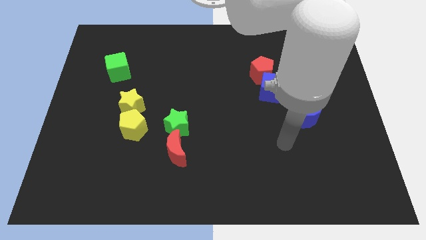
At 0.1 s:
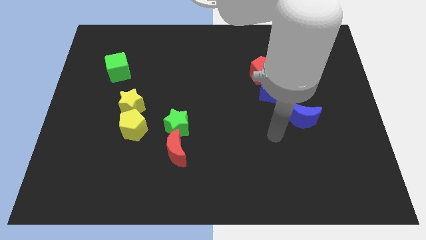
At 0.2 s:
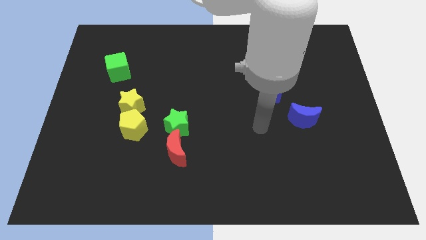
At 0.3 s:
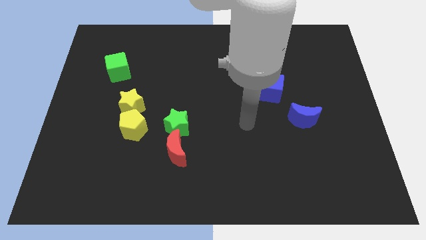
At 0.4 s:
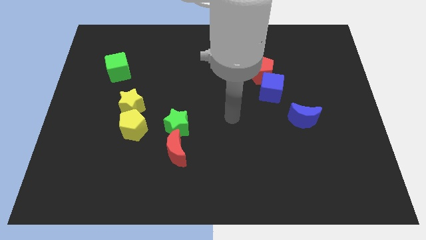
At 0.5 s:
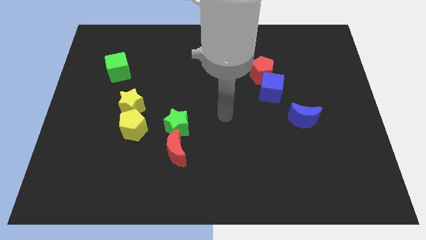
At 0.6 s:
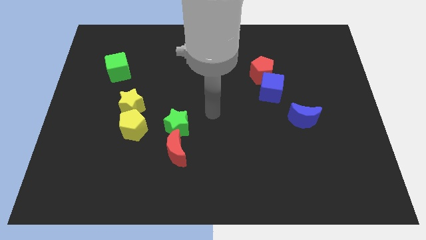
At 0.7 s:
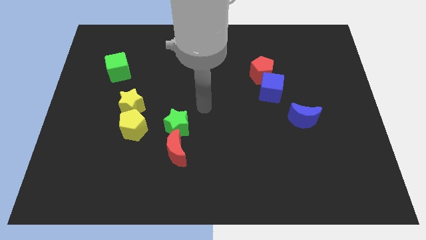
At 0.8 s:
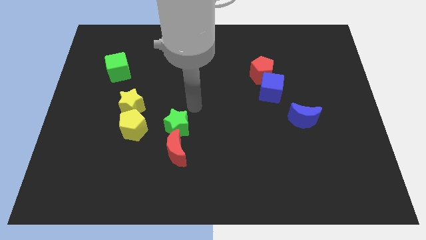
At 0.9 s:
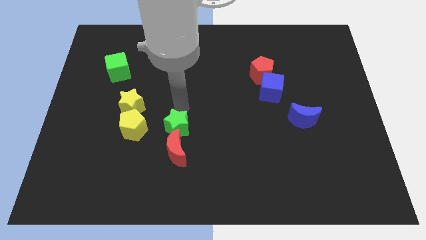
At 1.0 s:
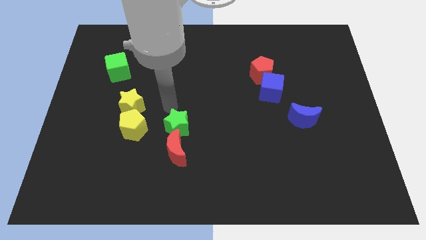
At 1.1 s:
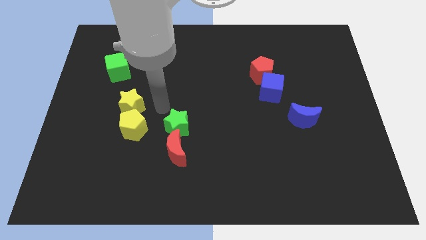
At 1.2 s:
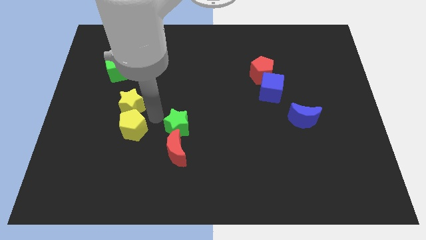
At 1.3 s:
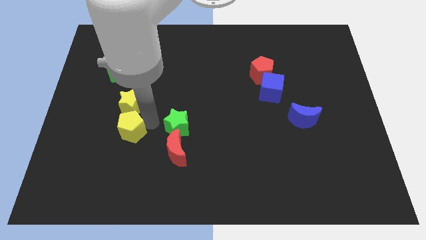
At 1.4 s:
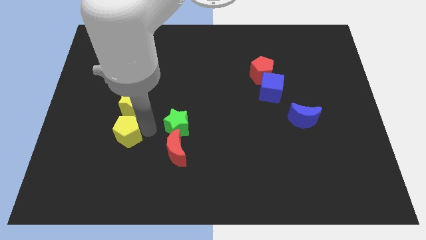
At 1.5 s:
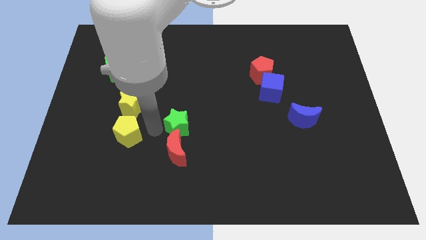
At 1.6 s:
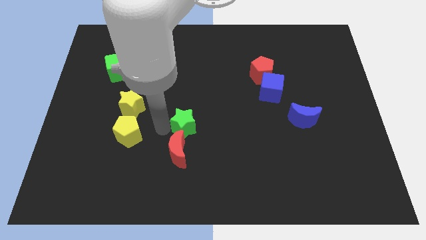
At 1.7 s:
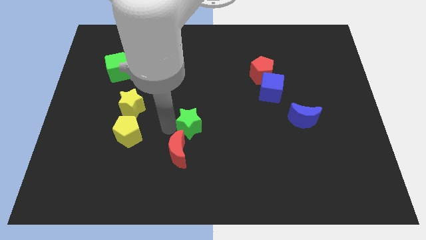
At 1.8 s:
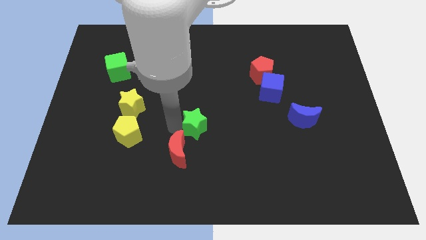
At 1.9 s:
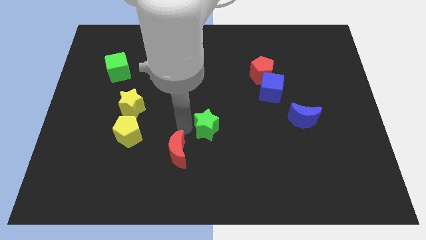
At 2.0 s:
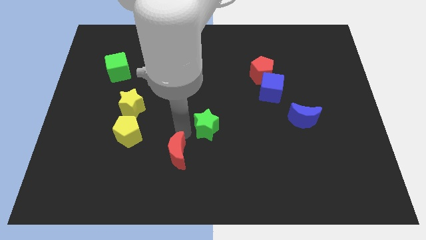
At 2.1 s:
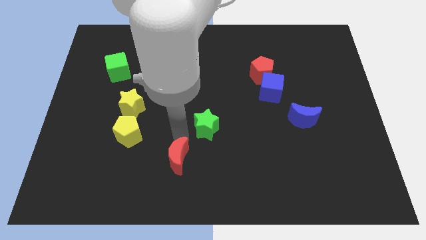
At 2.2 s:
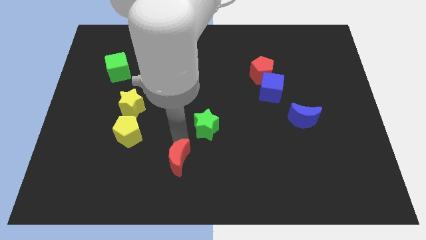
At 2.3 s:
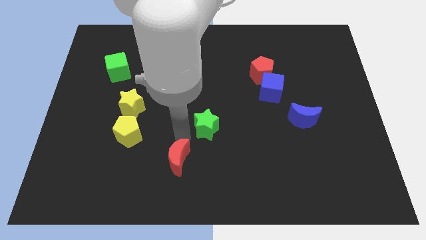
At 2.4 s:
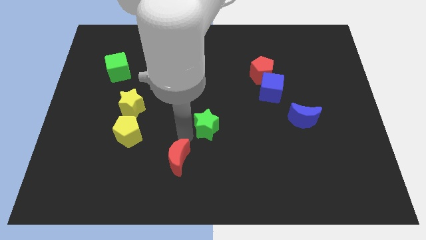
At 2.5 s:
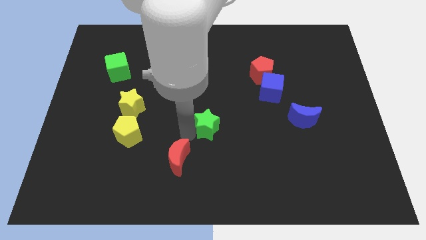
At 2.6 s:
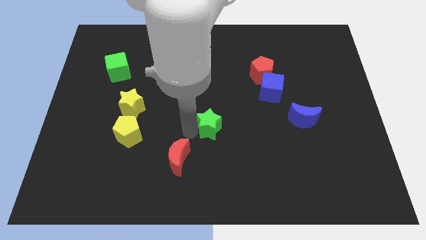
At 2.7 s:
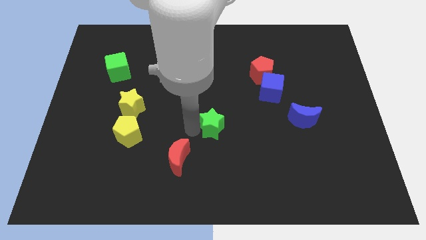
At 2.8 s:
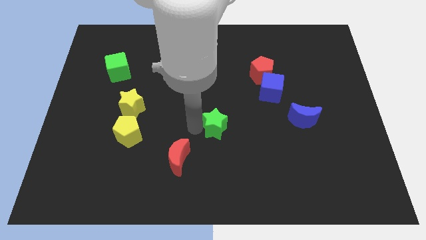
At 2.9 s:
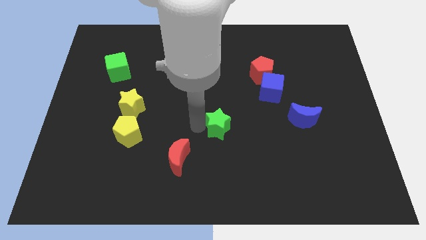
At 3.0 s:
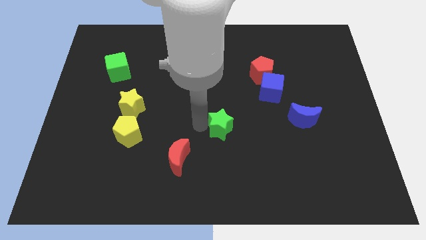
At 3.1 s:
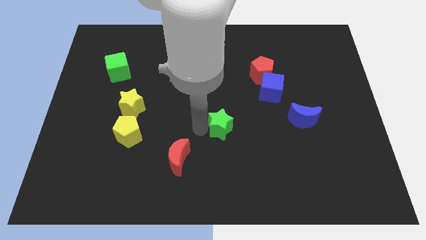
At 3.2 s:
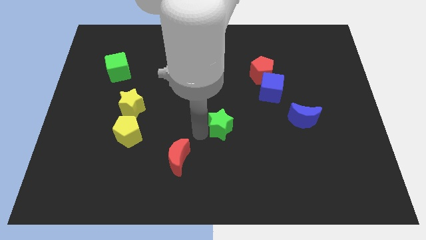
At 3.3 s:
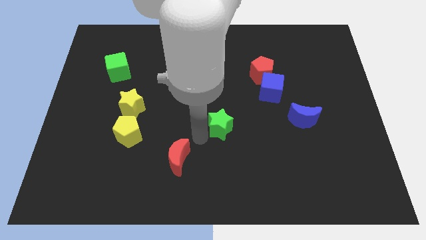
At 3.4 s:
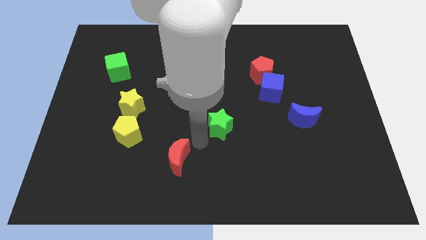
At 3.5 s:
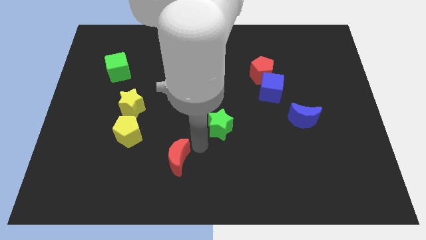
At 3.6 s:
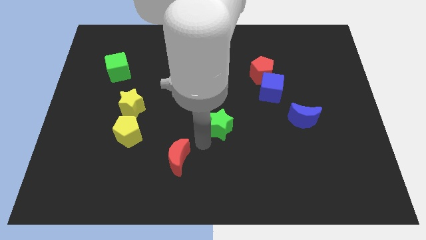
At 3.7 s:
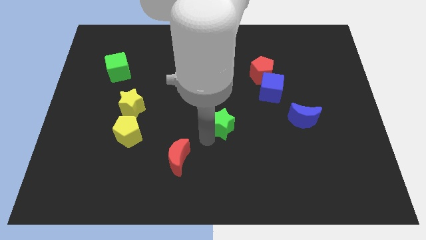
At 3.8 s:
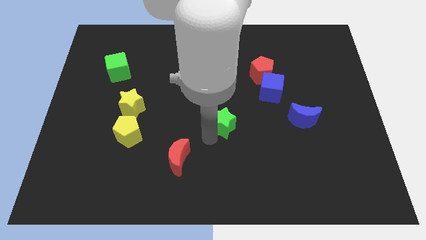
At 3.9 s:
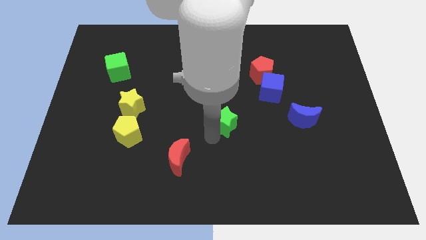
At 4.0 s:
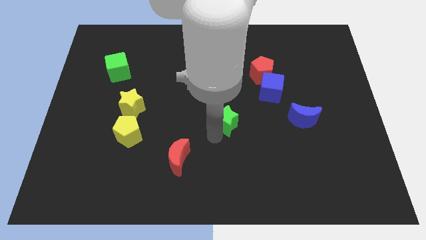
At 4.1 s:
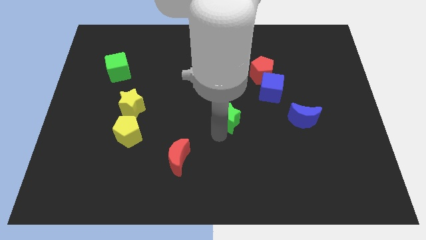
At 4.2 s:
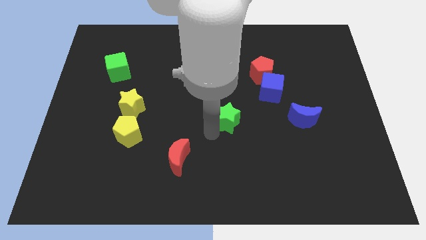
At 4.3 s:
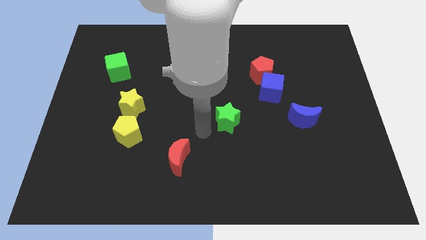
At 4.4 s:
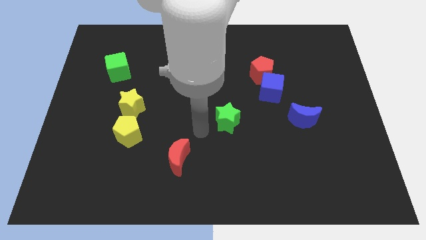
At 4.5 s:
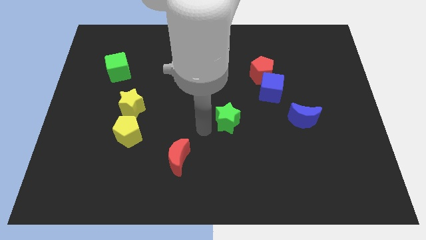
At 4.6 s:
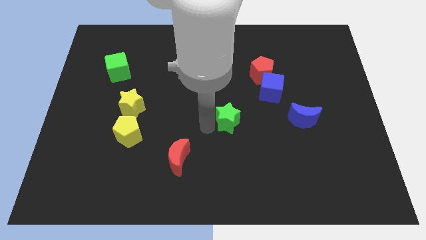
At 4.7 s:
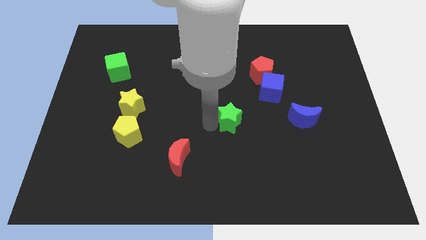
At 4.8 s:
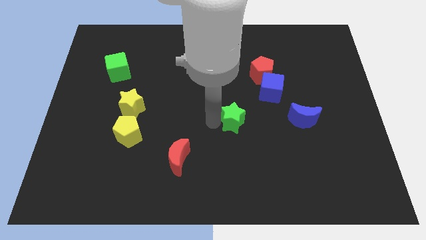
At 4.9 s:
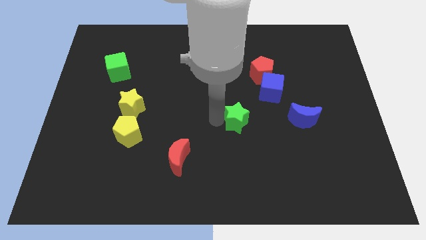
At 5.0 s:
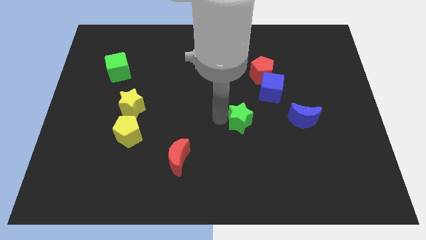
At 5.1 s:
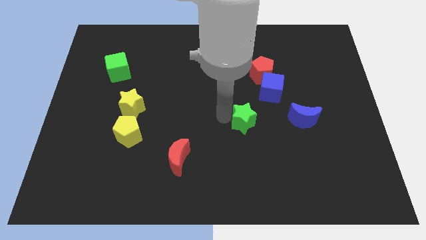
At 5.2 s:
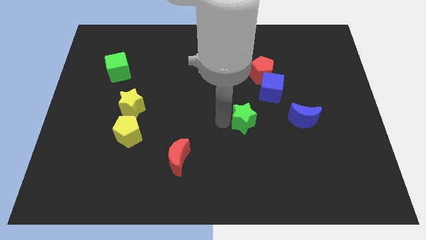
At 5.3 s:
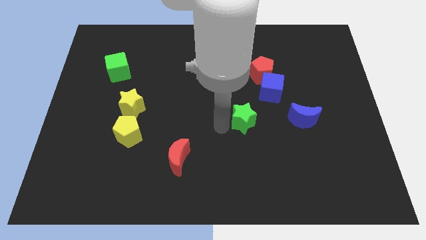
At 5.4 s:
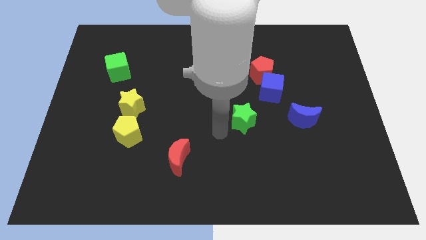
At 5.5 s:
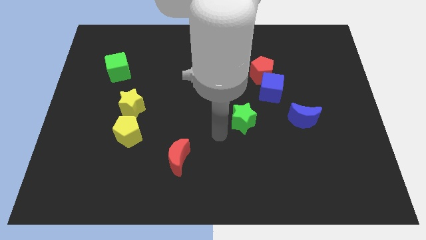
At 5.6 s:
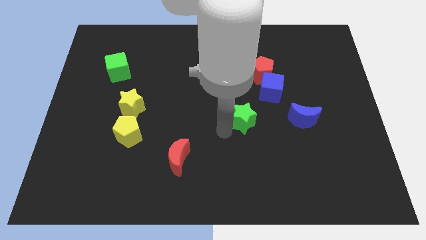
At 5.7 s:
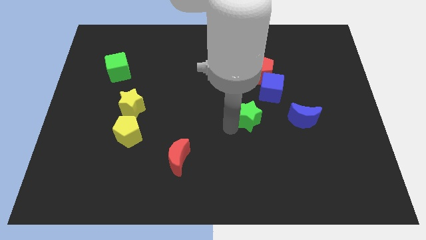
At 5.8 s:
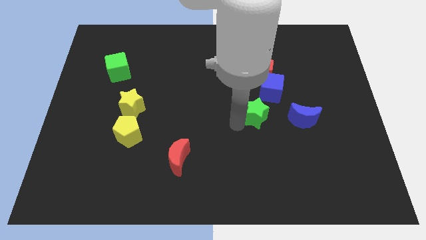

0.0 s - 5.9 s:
slide the green star to the bottom side of the red pentagon

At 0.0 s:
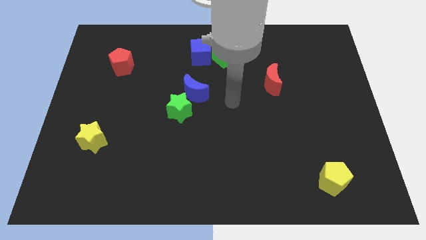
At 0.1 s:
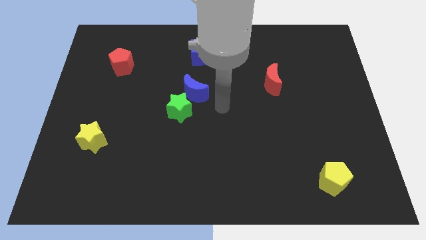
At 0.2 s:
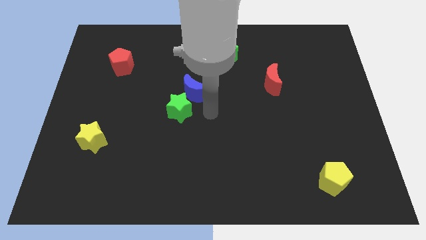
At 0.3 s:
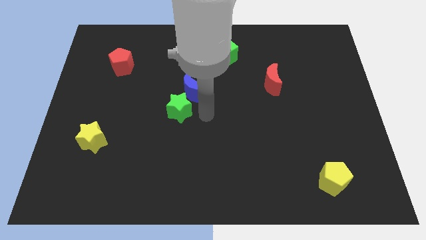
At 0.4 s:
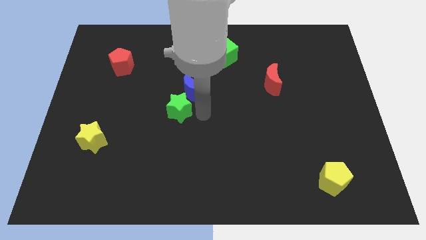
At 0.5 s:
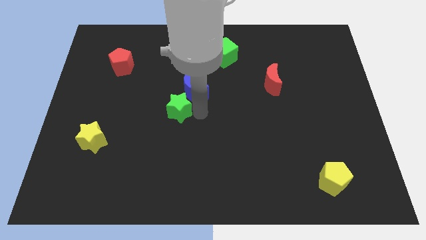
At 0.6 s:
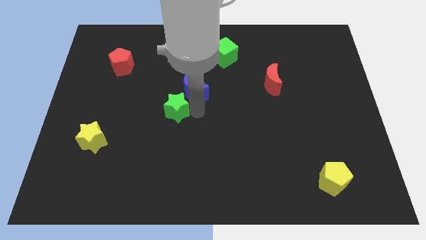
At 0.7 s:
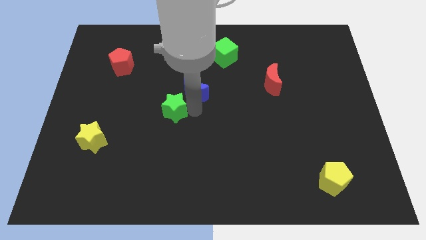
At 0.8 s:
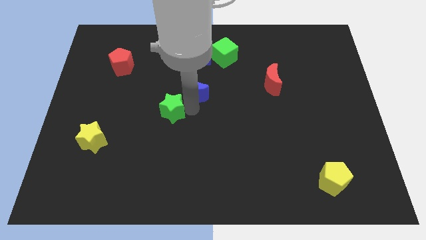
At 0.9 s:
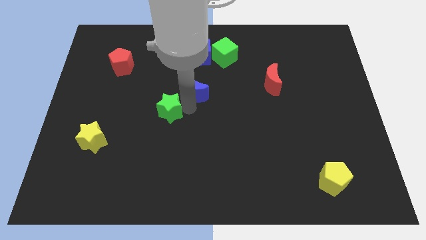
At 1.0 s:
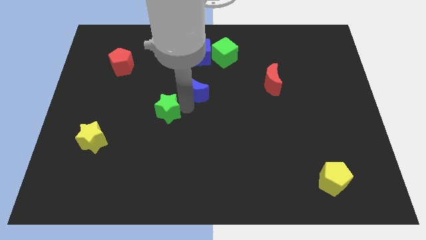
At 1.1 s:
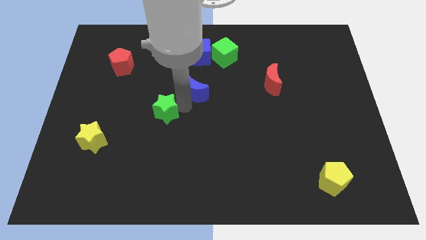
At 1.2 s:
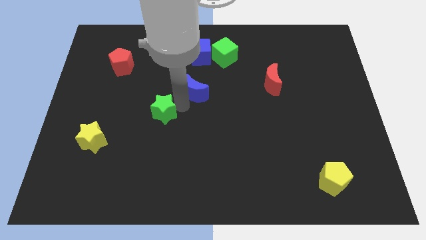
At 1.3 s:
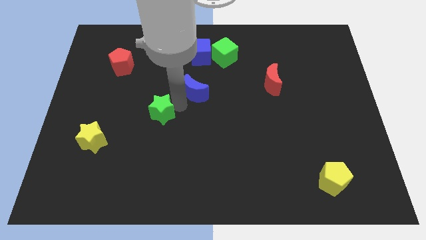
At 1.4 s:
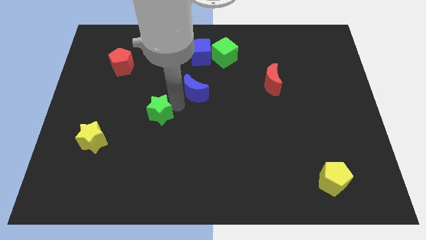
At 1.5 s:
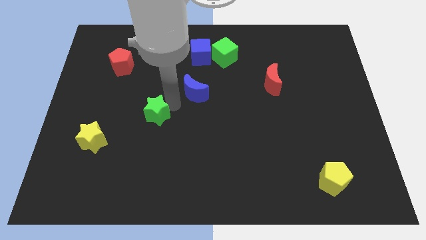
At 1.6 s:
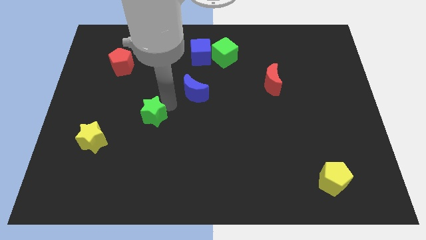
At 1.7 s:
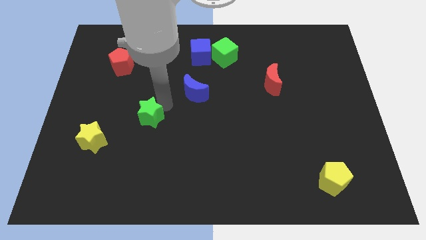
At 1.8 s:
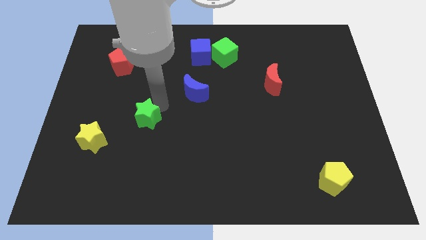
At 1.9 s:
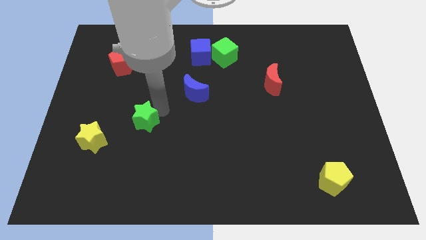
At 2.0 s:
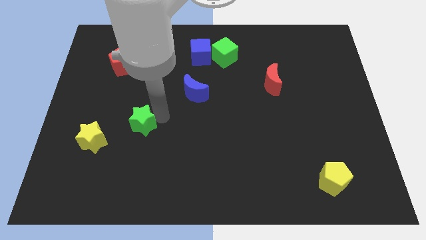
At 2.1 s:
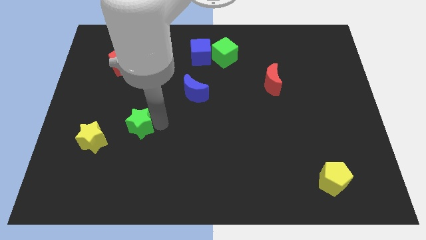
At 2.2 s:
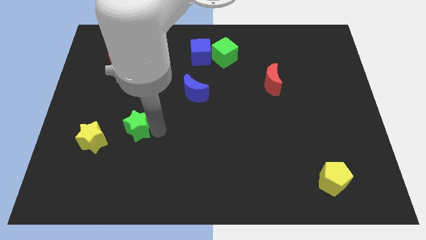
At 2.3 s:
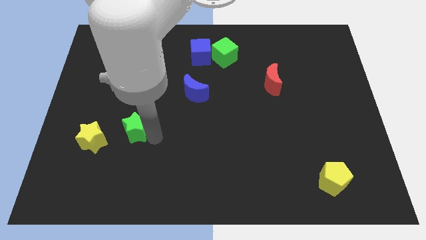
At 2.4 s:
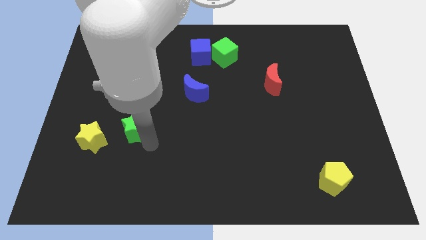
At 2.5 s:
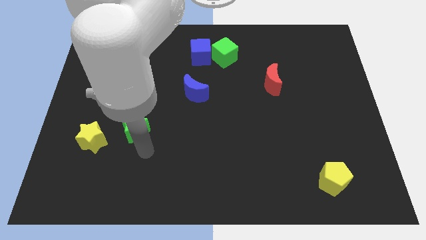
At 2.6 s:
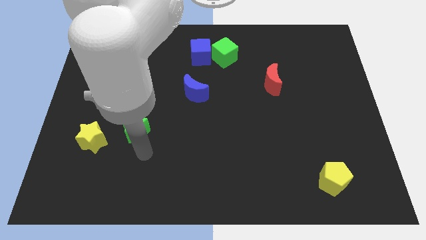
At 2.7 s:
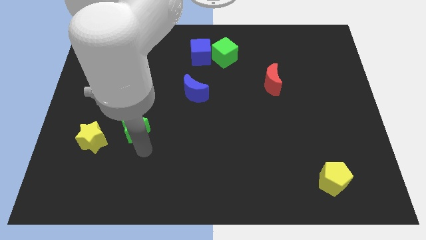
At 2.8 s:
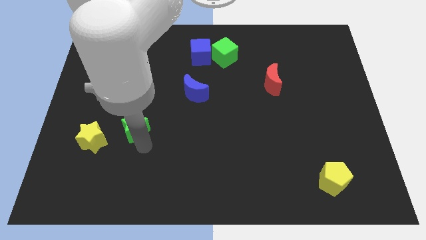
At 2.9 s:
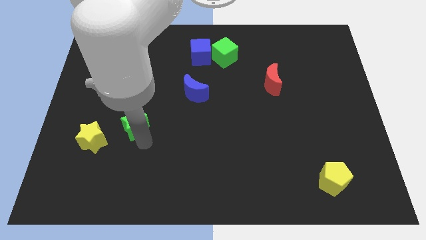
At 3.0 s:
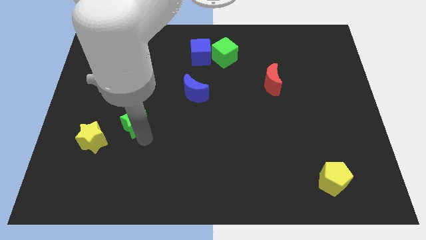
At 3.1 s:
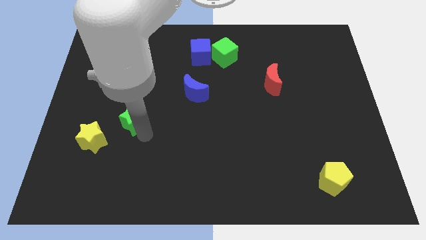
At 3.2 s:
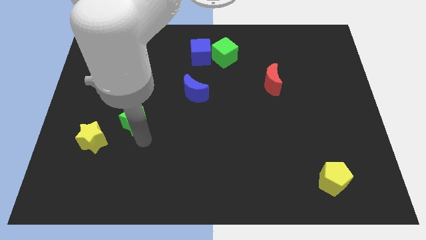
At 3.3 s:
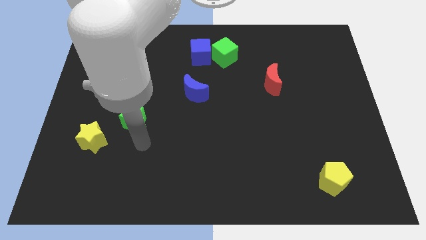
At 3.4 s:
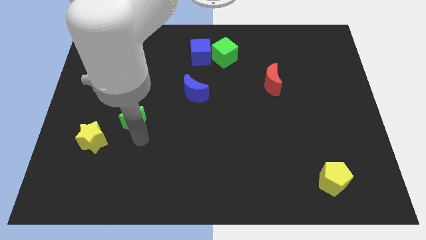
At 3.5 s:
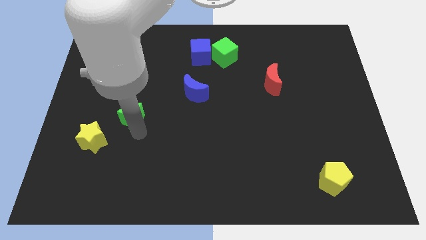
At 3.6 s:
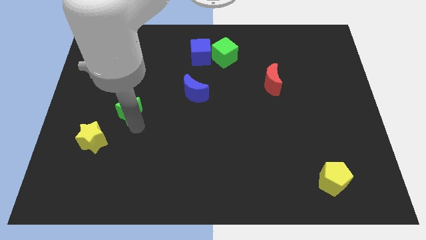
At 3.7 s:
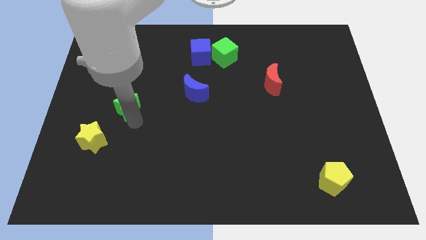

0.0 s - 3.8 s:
put the green star to the bottom side of the red pentagon
